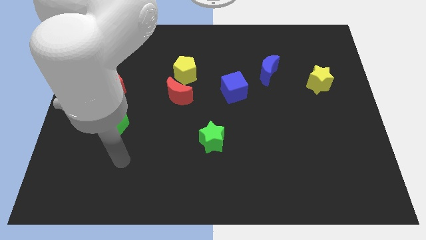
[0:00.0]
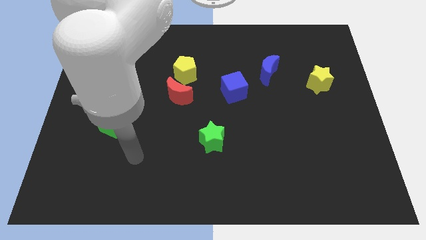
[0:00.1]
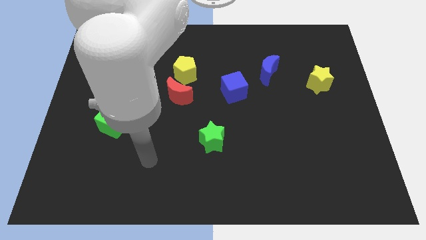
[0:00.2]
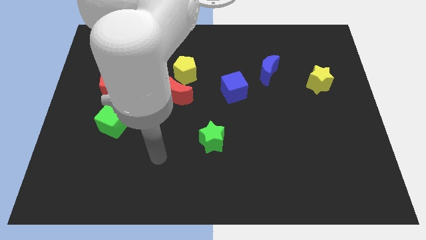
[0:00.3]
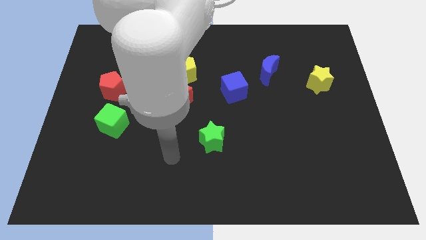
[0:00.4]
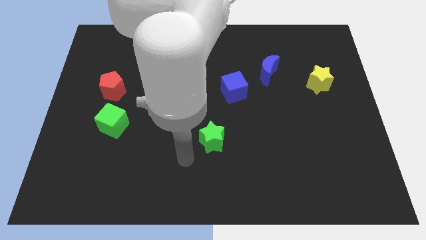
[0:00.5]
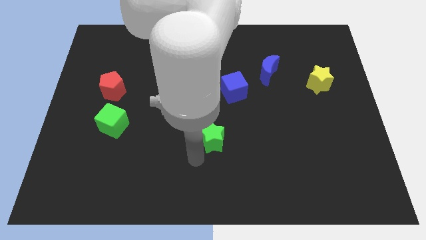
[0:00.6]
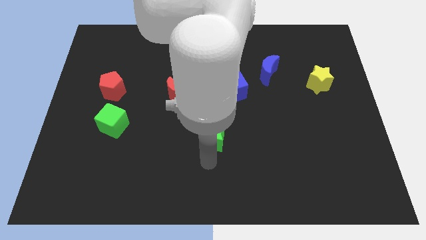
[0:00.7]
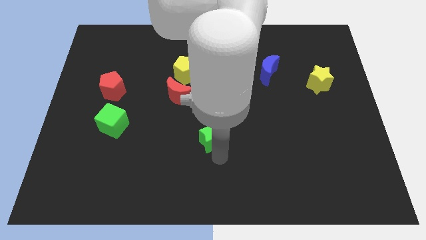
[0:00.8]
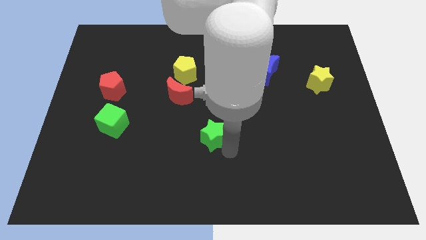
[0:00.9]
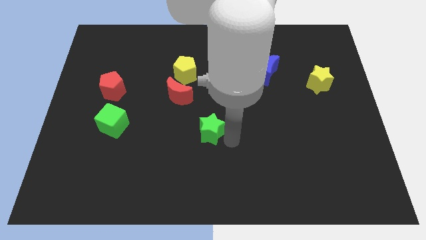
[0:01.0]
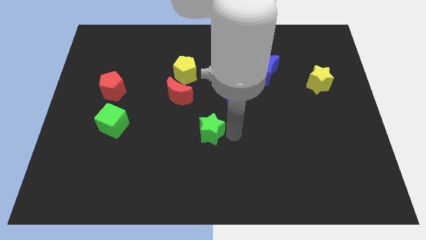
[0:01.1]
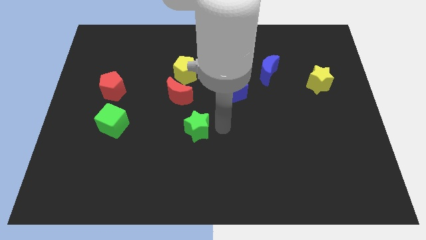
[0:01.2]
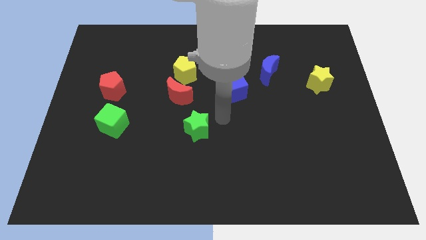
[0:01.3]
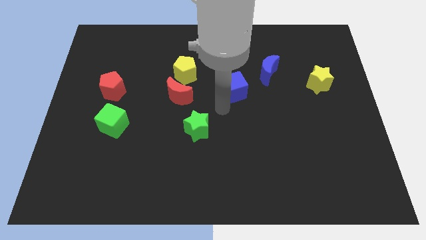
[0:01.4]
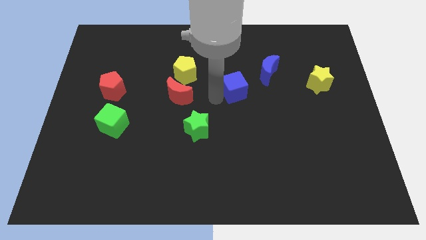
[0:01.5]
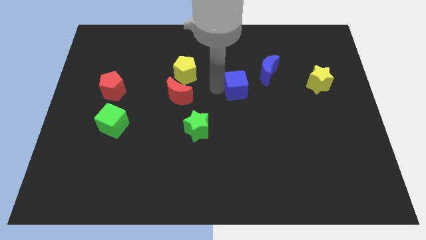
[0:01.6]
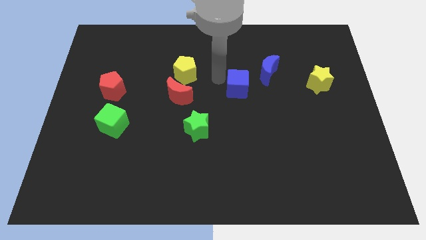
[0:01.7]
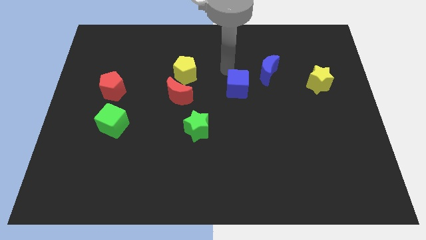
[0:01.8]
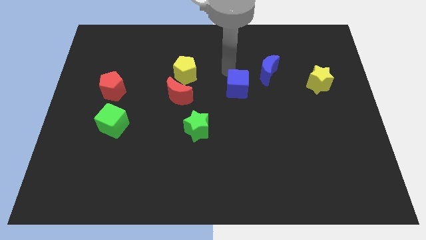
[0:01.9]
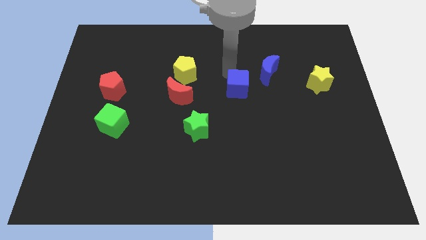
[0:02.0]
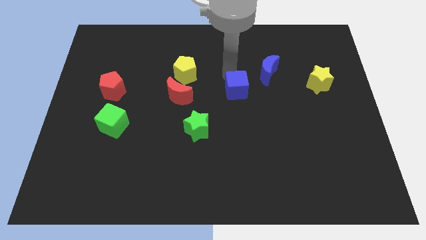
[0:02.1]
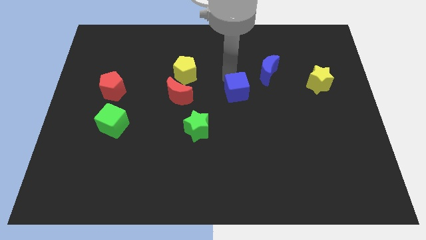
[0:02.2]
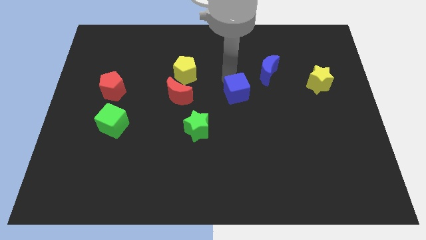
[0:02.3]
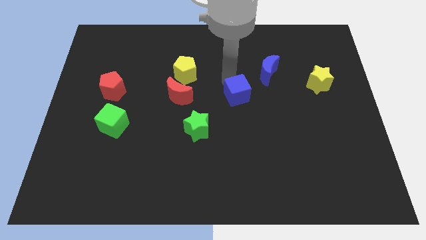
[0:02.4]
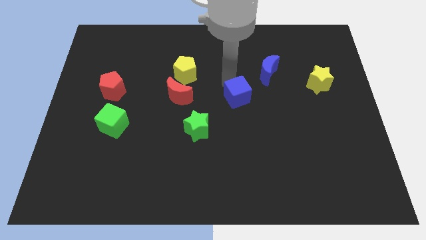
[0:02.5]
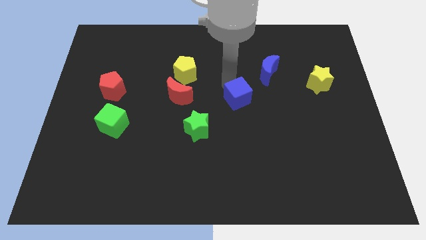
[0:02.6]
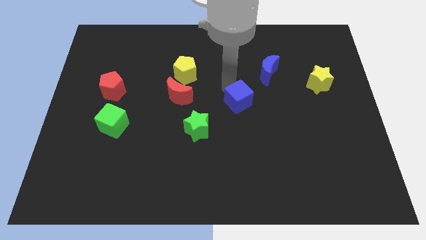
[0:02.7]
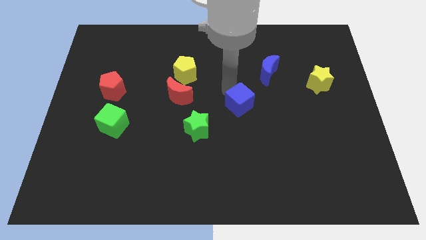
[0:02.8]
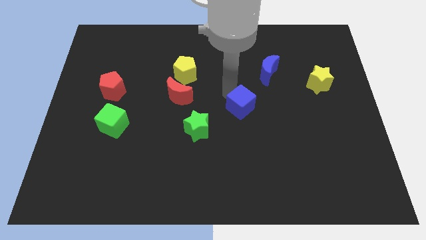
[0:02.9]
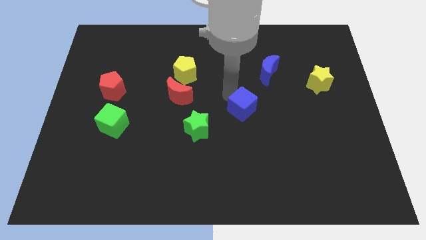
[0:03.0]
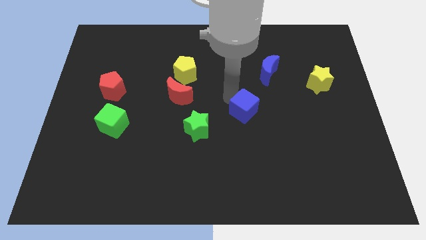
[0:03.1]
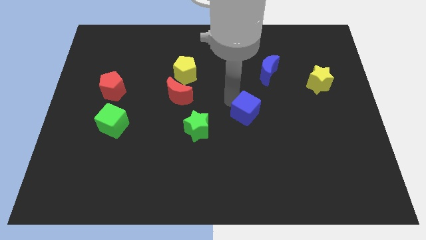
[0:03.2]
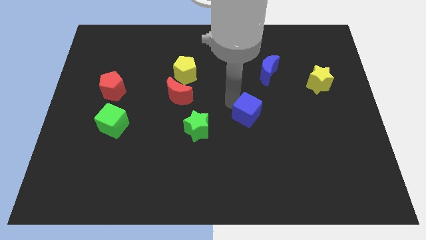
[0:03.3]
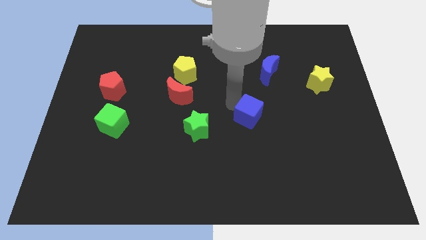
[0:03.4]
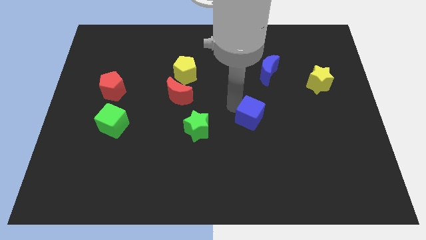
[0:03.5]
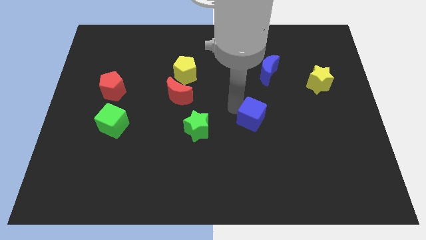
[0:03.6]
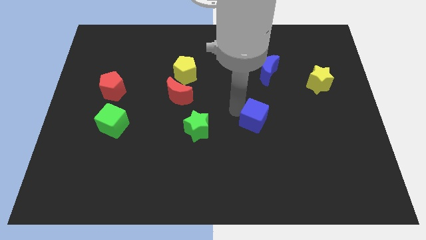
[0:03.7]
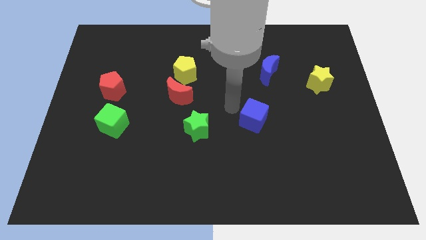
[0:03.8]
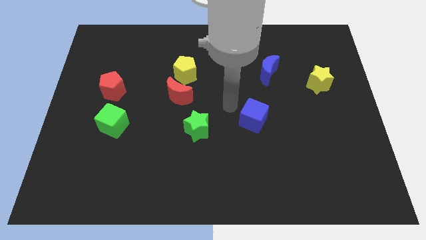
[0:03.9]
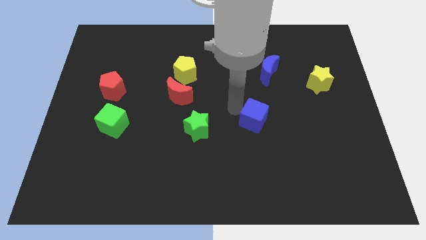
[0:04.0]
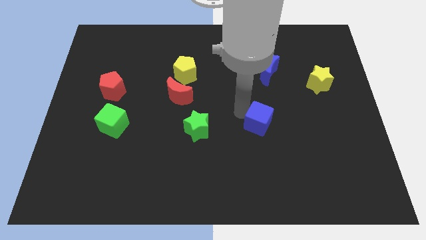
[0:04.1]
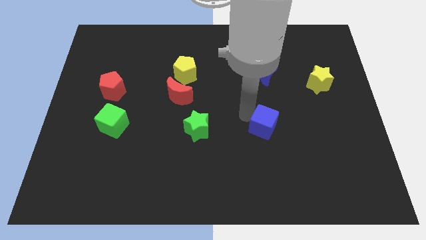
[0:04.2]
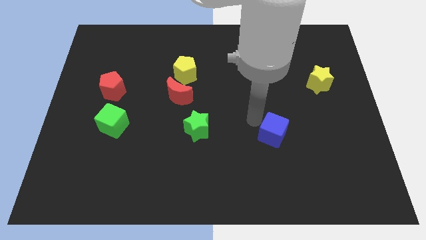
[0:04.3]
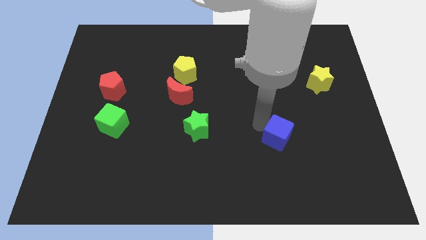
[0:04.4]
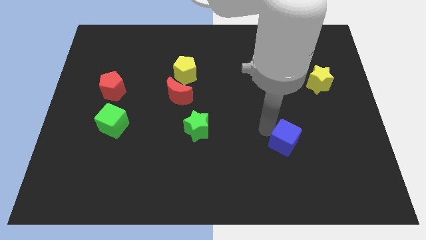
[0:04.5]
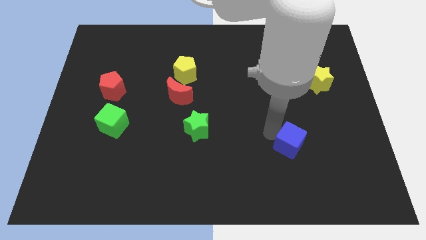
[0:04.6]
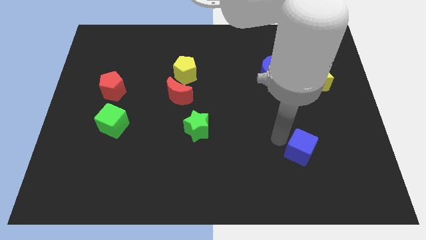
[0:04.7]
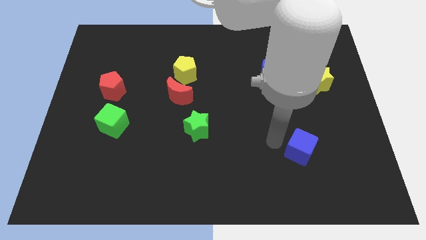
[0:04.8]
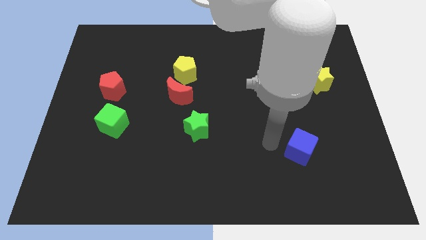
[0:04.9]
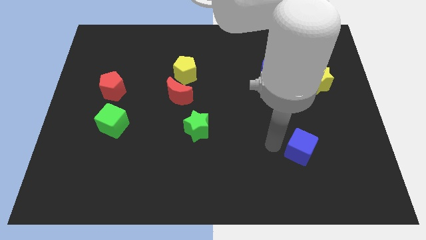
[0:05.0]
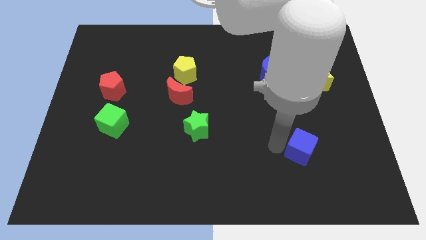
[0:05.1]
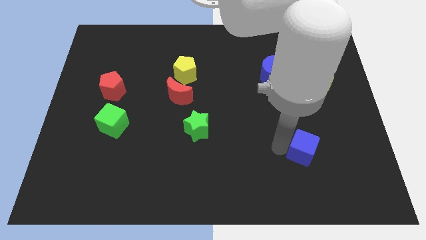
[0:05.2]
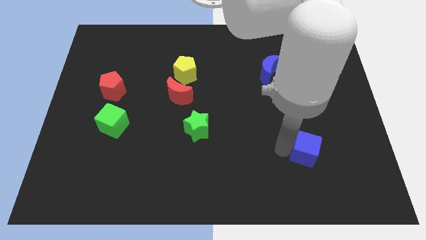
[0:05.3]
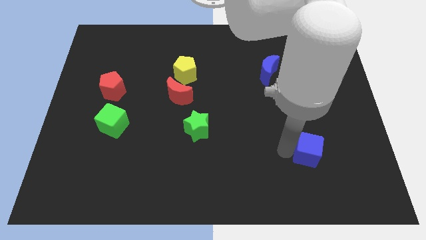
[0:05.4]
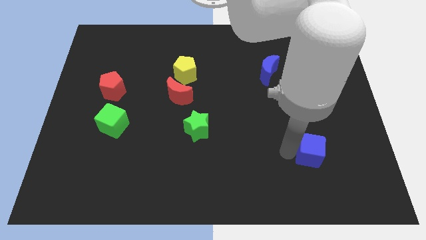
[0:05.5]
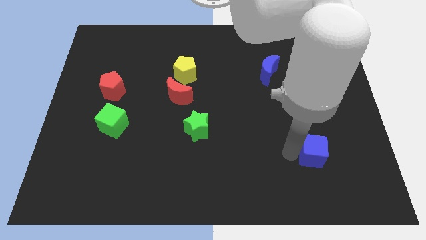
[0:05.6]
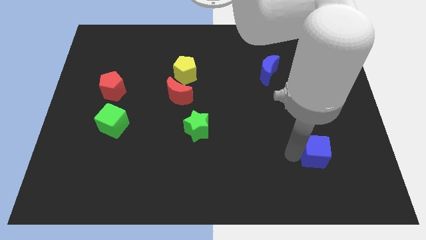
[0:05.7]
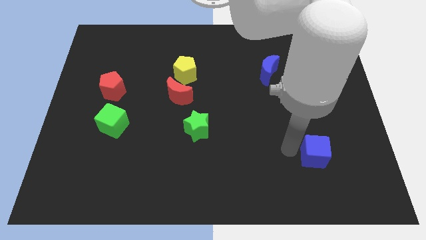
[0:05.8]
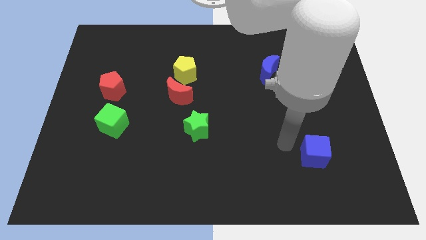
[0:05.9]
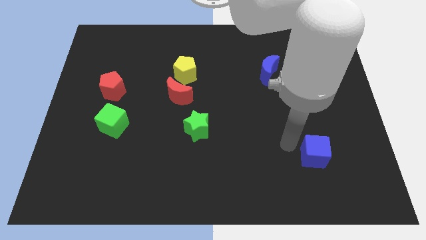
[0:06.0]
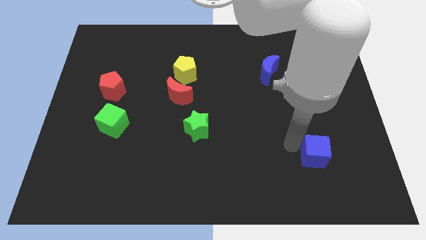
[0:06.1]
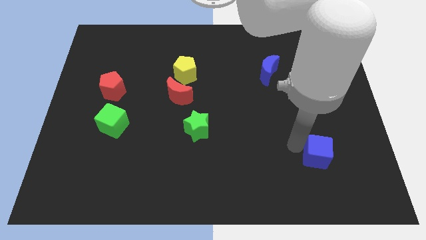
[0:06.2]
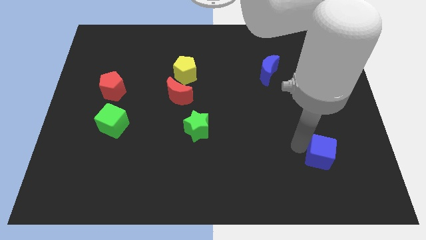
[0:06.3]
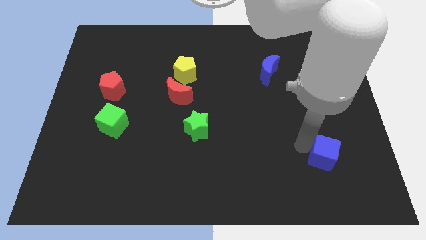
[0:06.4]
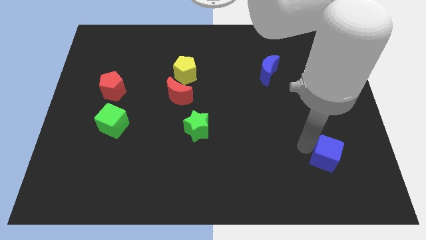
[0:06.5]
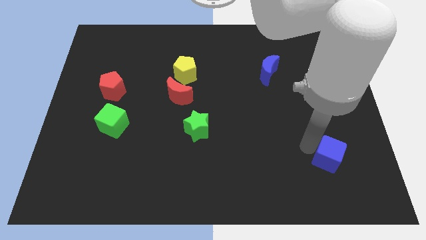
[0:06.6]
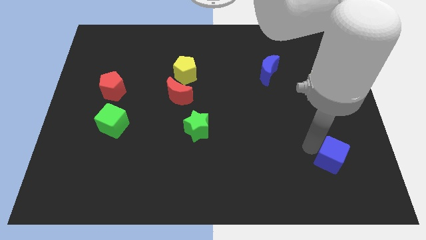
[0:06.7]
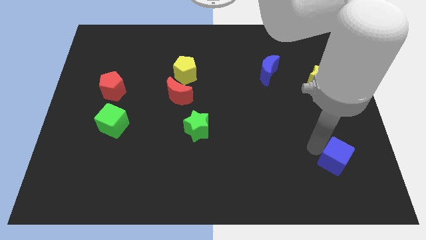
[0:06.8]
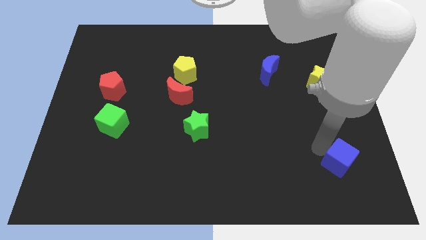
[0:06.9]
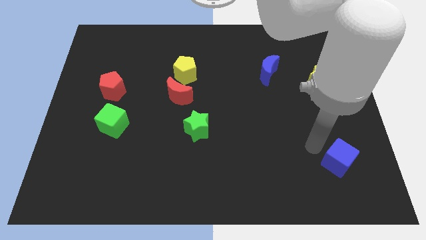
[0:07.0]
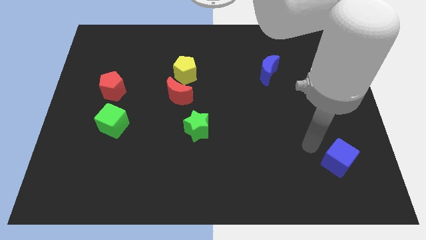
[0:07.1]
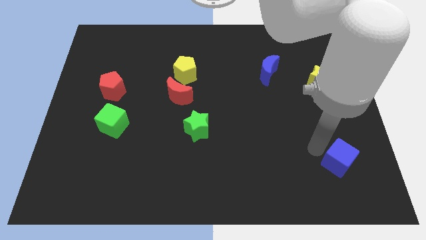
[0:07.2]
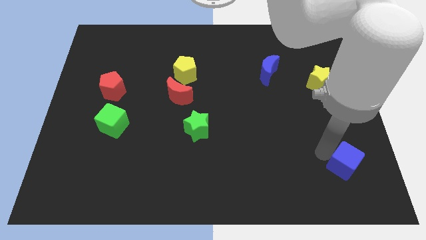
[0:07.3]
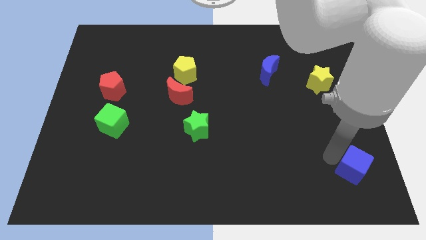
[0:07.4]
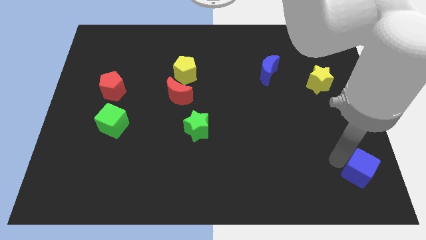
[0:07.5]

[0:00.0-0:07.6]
push the blue cube to the lower right corner
